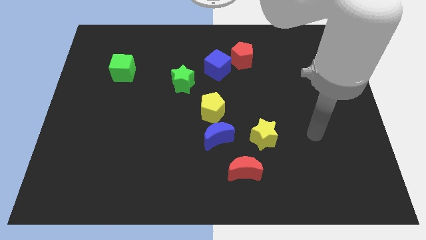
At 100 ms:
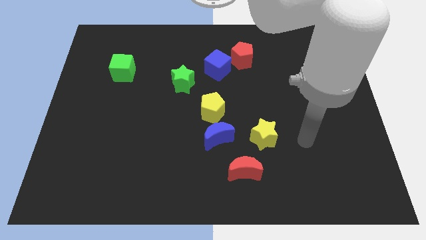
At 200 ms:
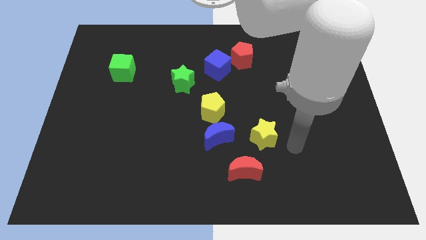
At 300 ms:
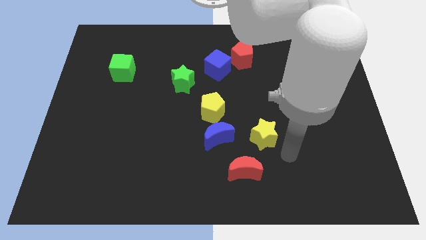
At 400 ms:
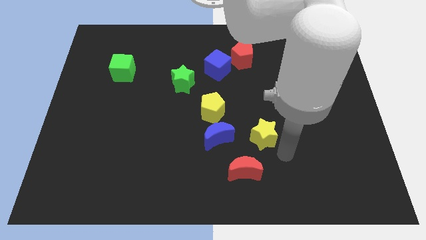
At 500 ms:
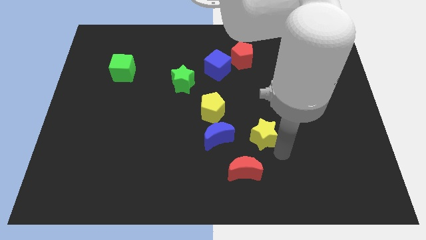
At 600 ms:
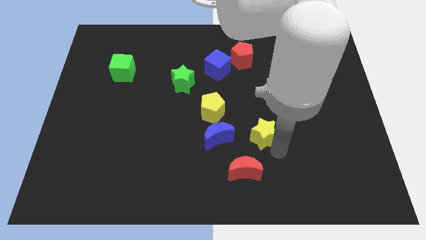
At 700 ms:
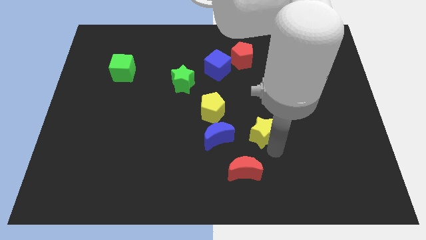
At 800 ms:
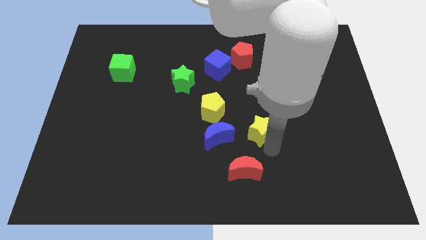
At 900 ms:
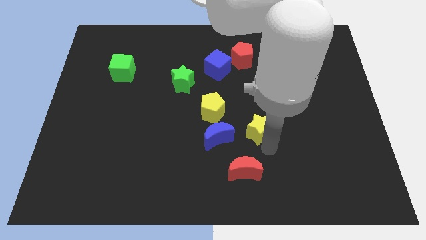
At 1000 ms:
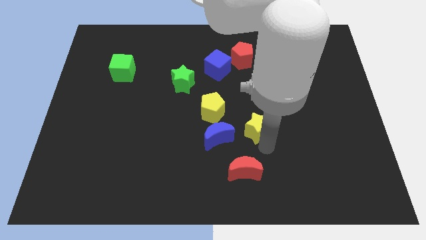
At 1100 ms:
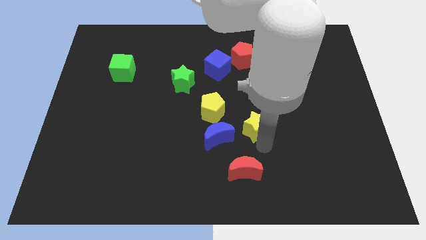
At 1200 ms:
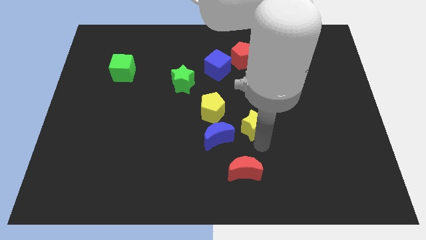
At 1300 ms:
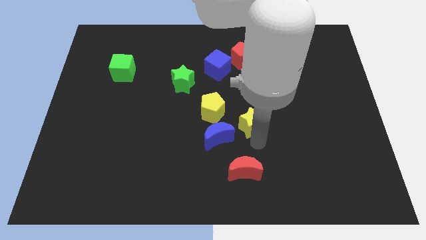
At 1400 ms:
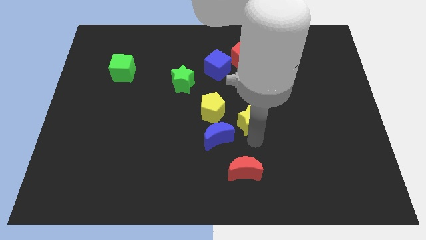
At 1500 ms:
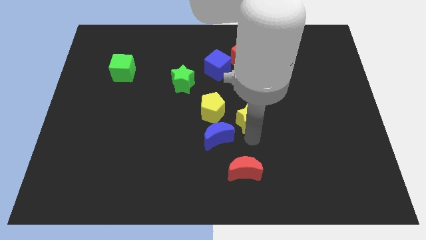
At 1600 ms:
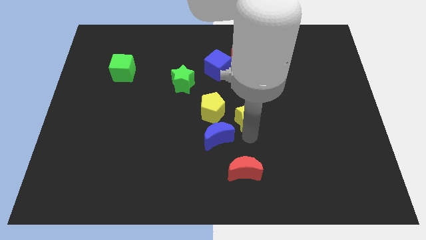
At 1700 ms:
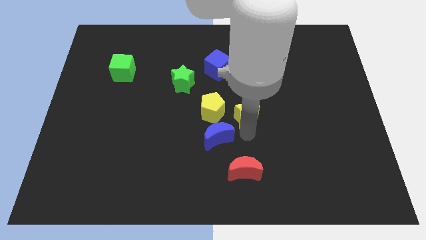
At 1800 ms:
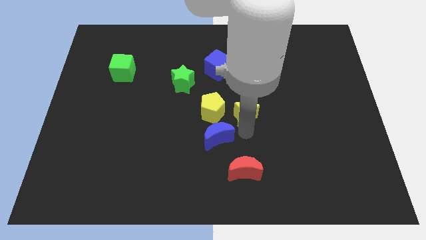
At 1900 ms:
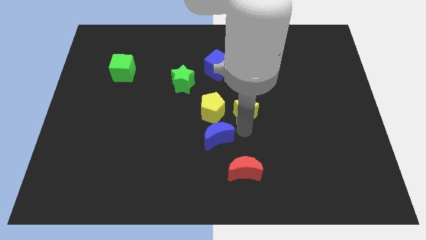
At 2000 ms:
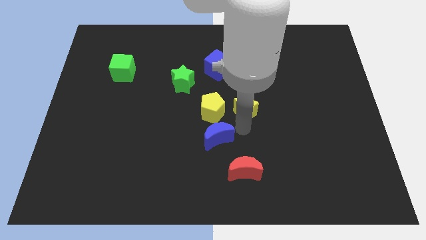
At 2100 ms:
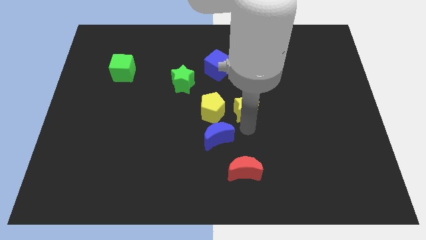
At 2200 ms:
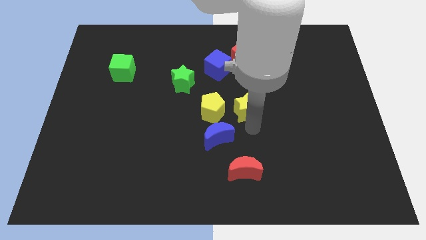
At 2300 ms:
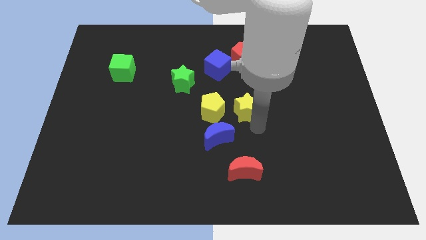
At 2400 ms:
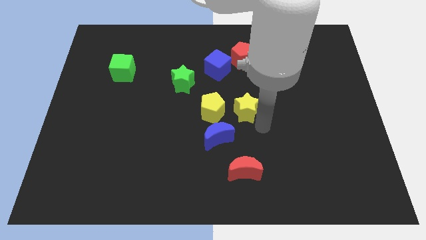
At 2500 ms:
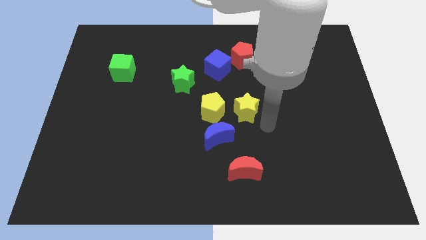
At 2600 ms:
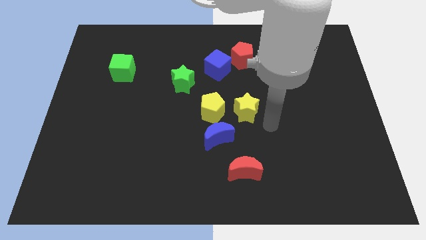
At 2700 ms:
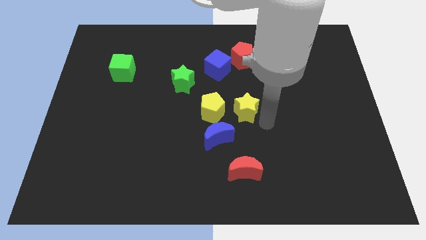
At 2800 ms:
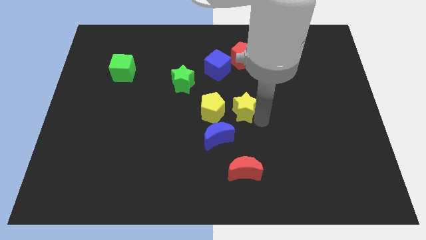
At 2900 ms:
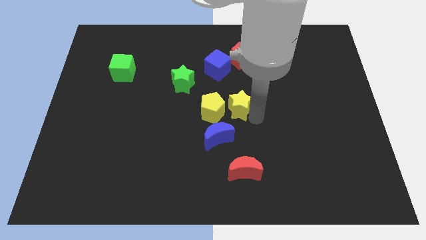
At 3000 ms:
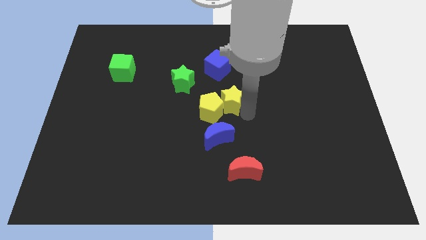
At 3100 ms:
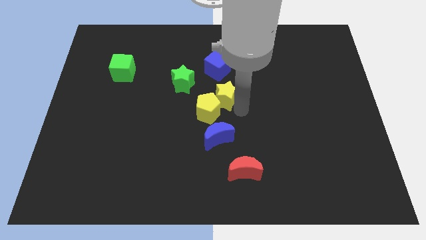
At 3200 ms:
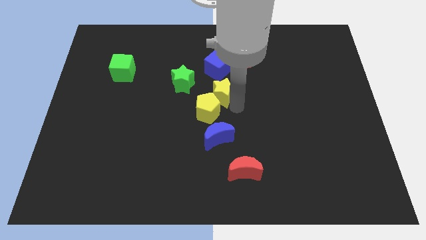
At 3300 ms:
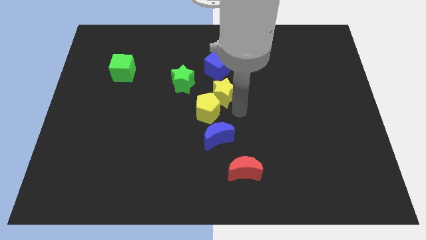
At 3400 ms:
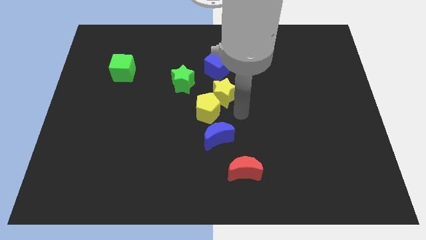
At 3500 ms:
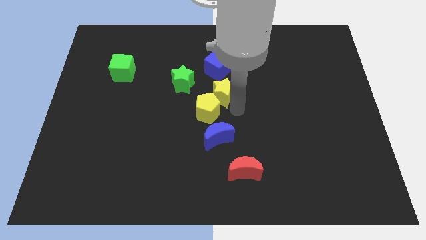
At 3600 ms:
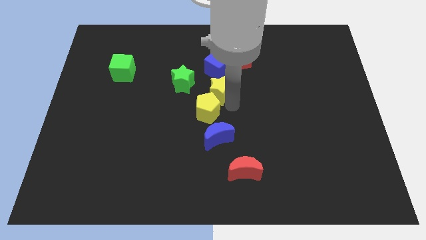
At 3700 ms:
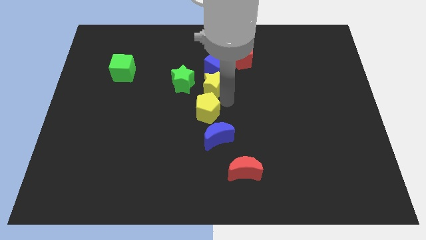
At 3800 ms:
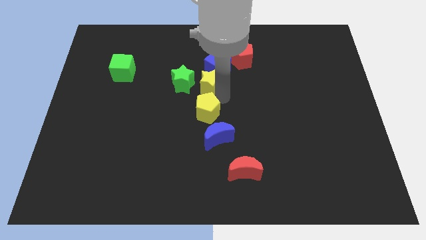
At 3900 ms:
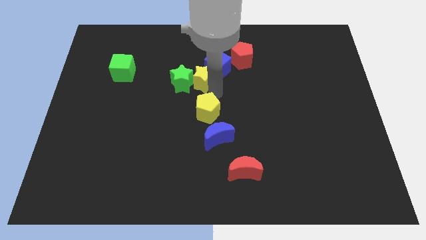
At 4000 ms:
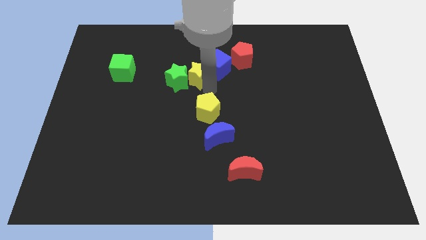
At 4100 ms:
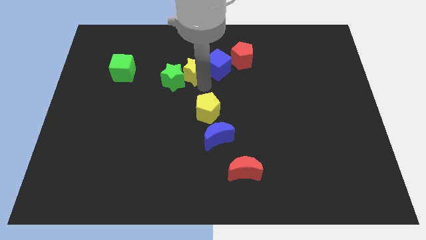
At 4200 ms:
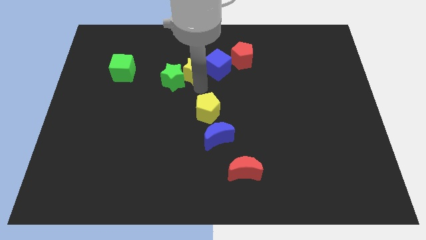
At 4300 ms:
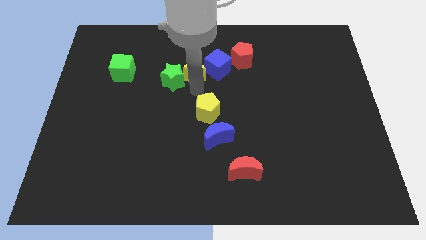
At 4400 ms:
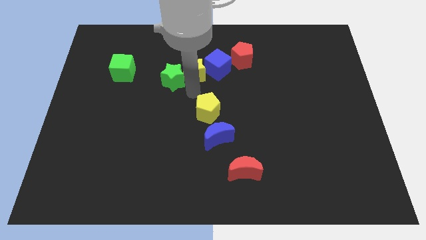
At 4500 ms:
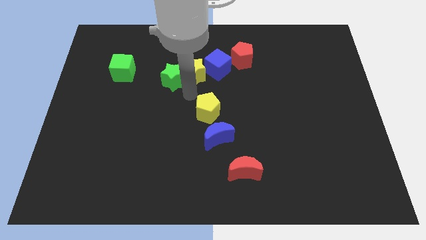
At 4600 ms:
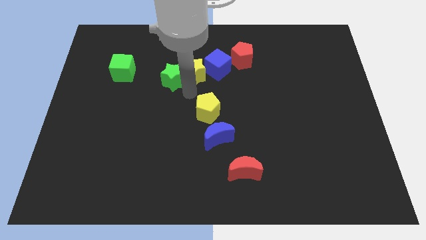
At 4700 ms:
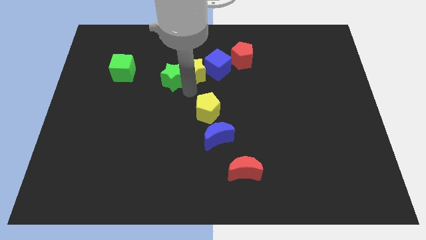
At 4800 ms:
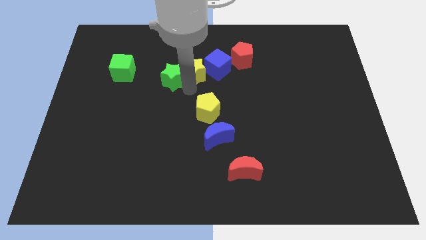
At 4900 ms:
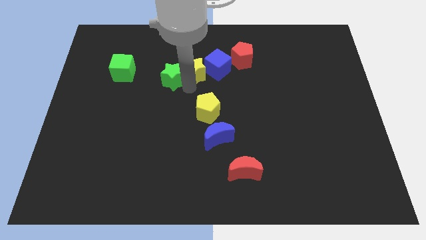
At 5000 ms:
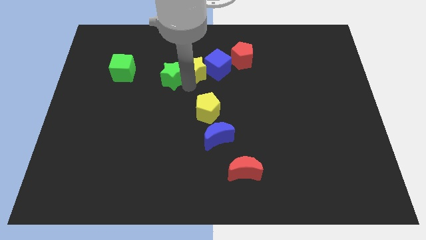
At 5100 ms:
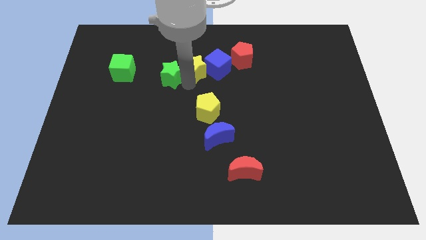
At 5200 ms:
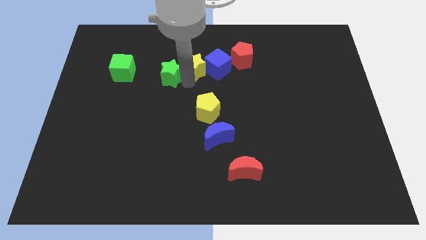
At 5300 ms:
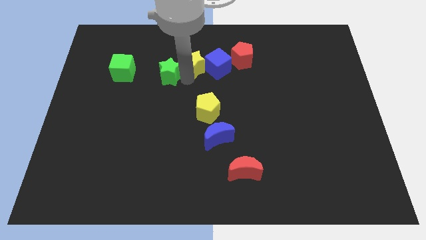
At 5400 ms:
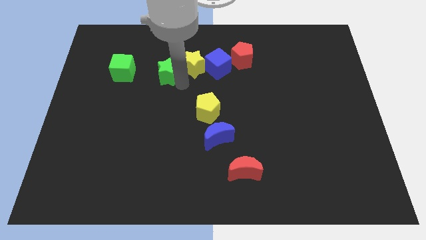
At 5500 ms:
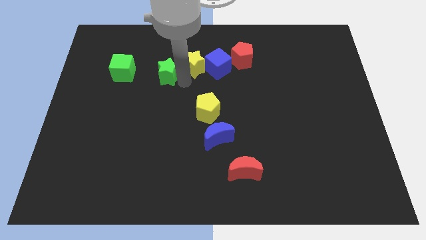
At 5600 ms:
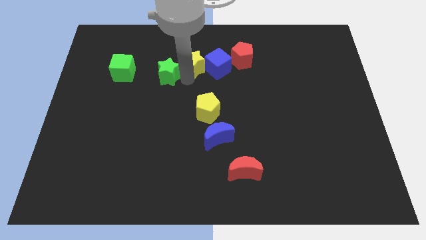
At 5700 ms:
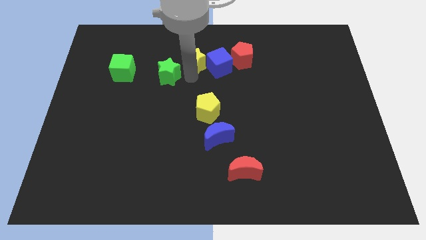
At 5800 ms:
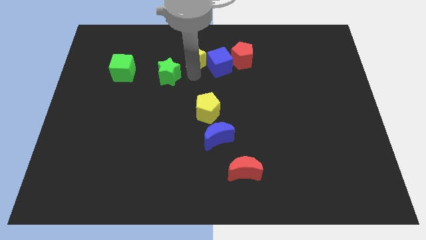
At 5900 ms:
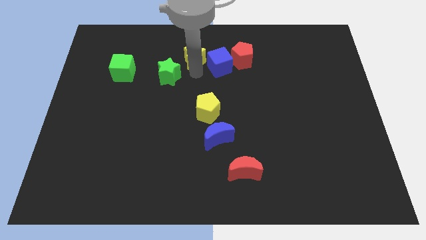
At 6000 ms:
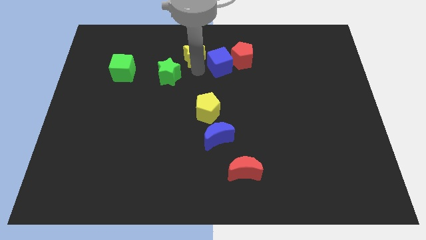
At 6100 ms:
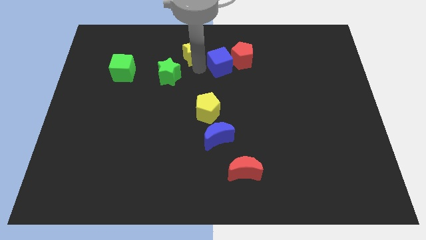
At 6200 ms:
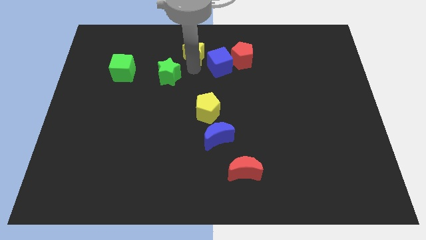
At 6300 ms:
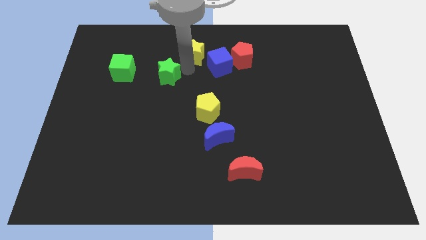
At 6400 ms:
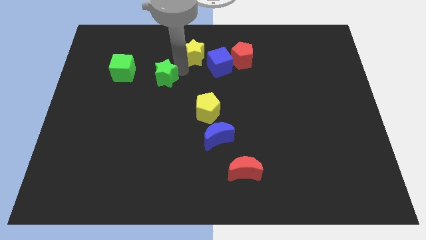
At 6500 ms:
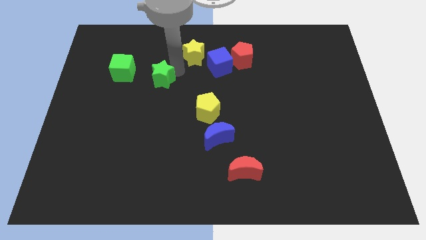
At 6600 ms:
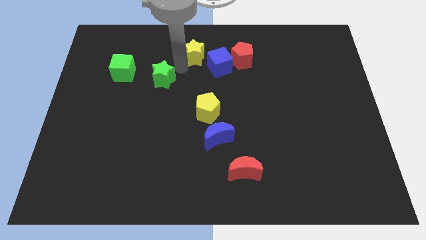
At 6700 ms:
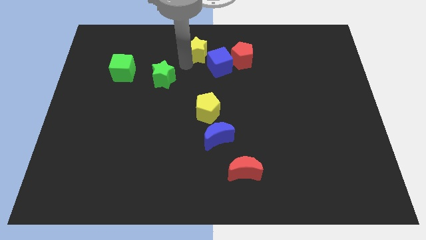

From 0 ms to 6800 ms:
slide the yellow star to the towards your base

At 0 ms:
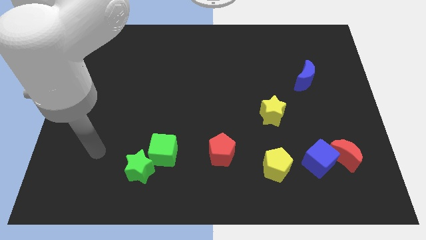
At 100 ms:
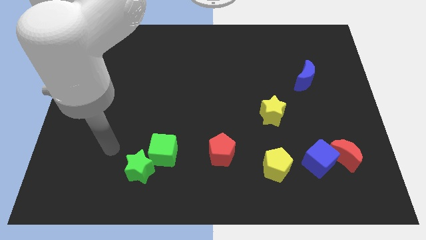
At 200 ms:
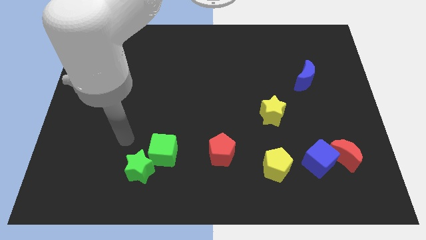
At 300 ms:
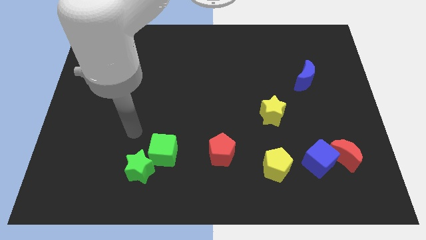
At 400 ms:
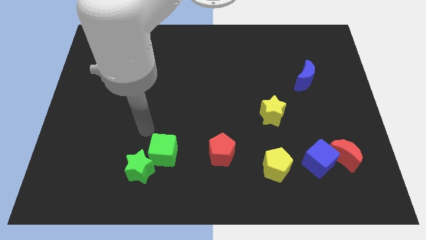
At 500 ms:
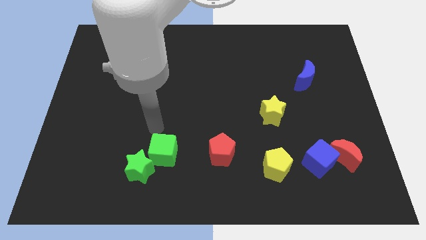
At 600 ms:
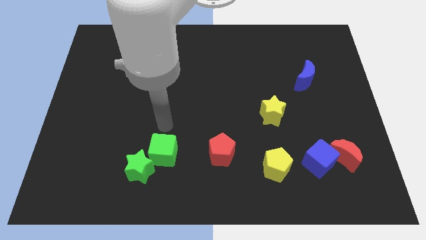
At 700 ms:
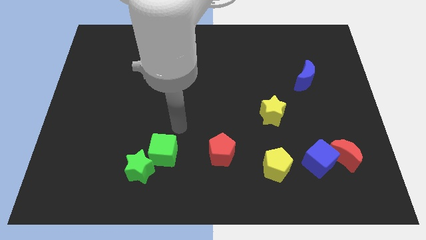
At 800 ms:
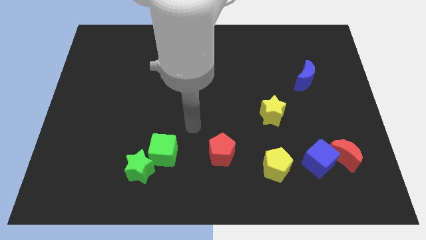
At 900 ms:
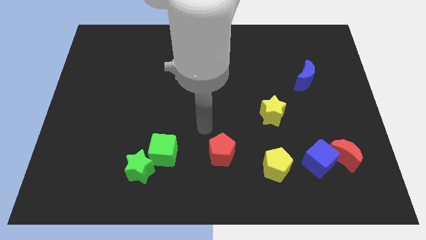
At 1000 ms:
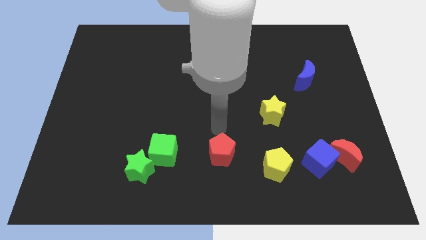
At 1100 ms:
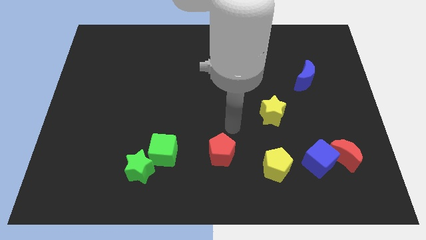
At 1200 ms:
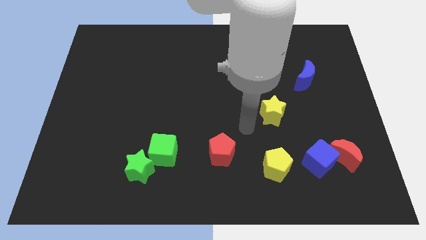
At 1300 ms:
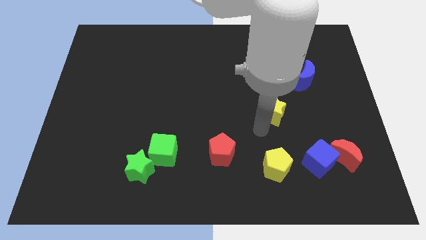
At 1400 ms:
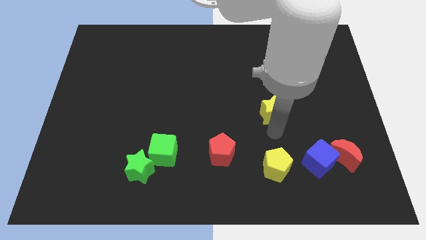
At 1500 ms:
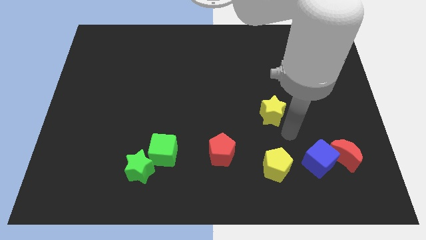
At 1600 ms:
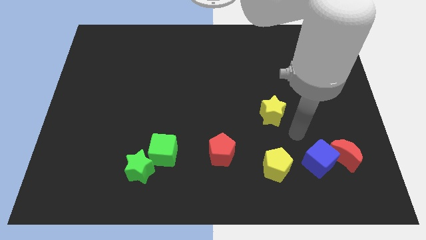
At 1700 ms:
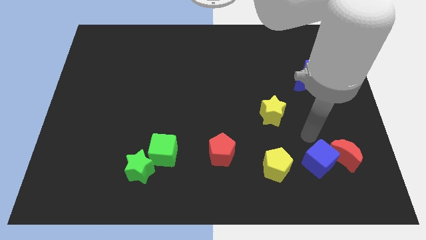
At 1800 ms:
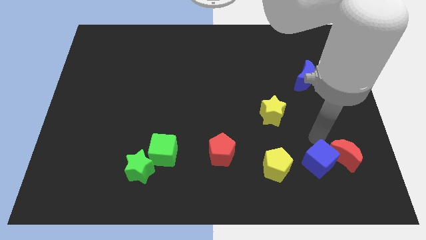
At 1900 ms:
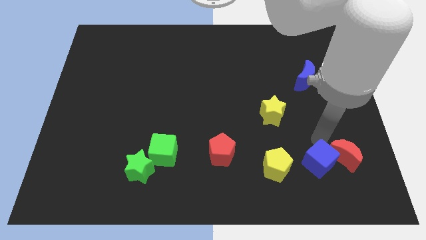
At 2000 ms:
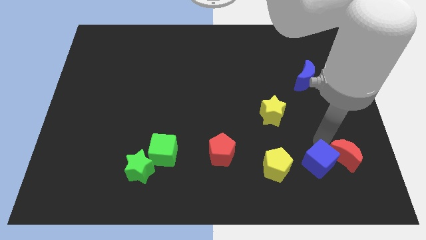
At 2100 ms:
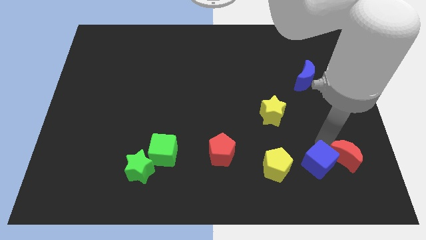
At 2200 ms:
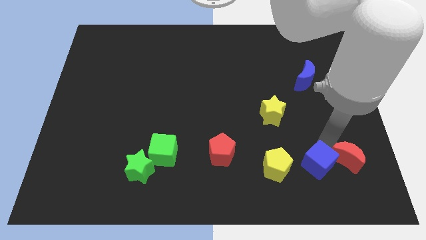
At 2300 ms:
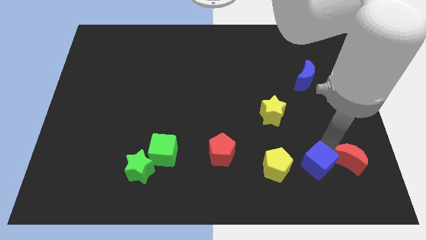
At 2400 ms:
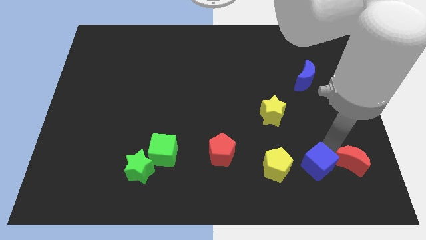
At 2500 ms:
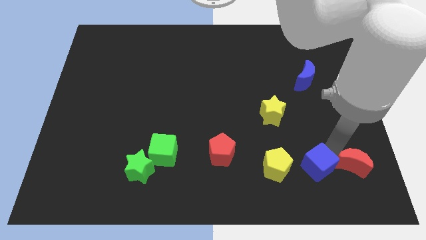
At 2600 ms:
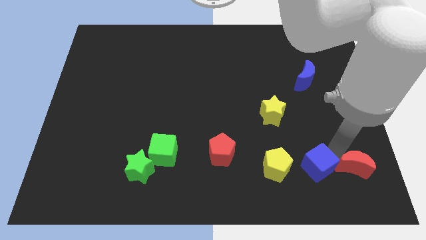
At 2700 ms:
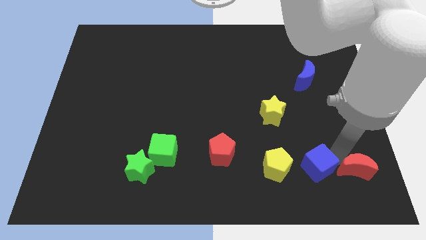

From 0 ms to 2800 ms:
slide the red moon to the lower right corner
